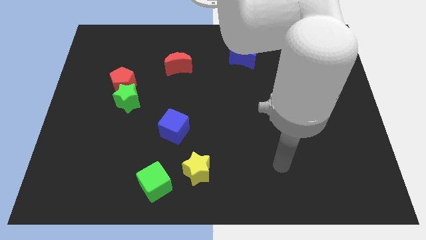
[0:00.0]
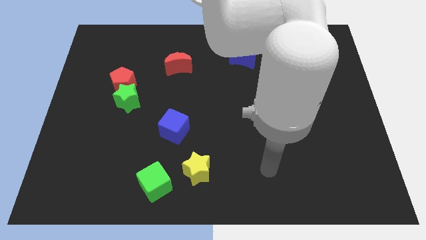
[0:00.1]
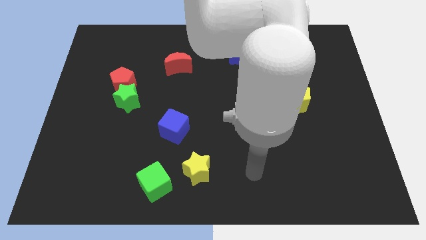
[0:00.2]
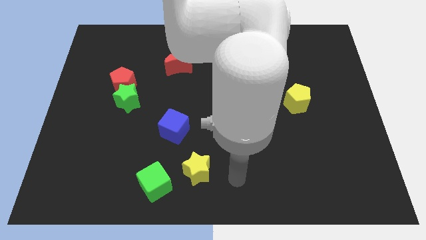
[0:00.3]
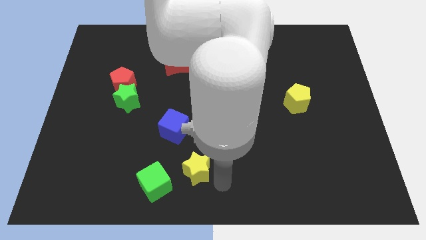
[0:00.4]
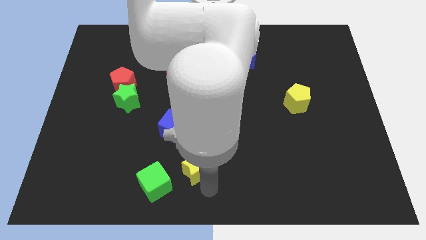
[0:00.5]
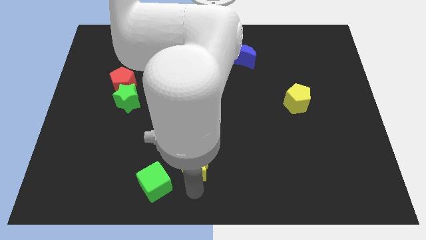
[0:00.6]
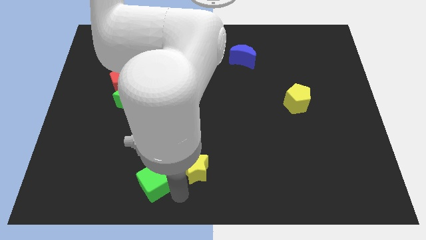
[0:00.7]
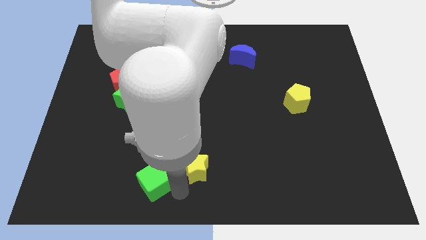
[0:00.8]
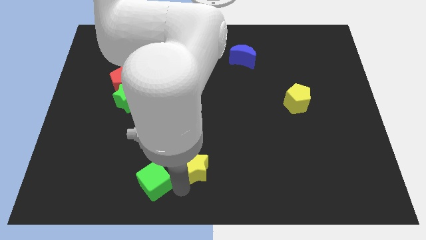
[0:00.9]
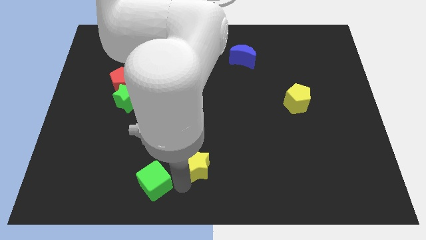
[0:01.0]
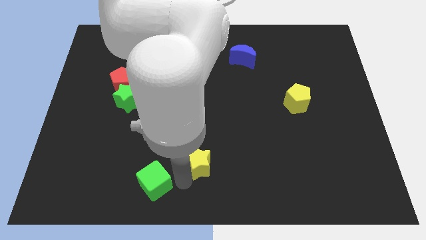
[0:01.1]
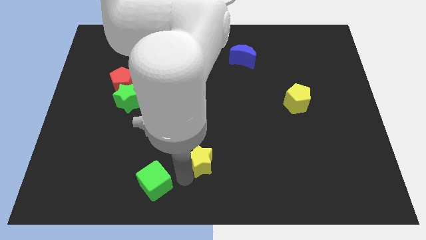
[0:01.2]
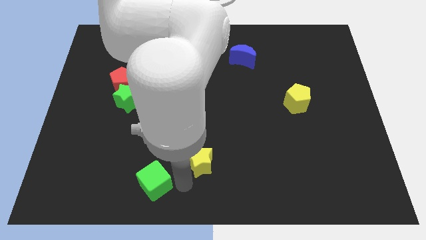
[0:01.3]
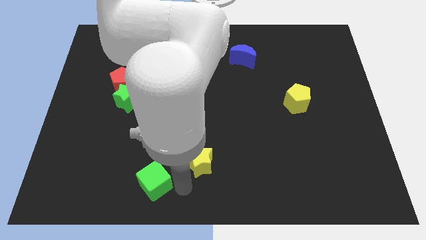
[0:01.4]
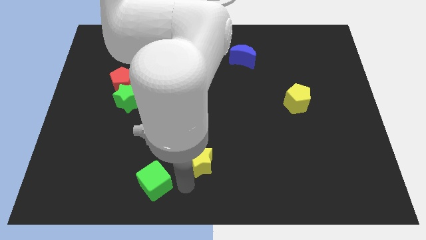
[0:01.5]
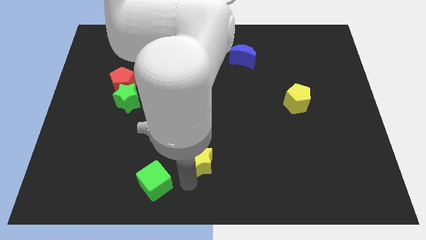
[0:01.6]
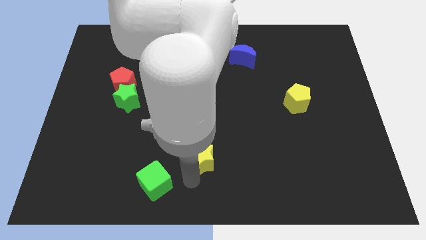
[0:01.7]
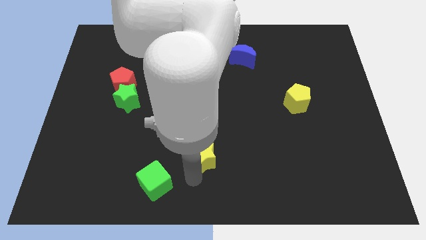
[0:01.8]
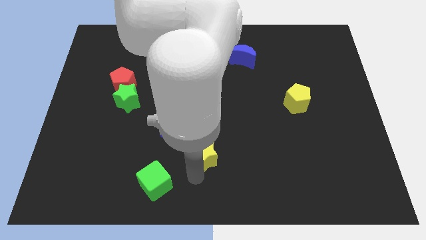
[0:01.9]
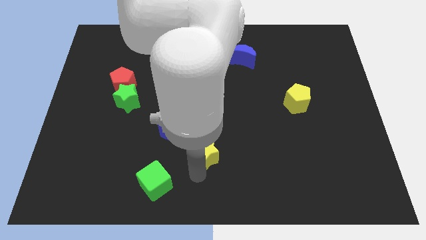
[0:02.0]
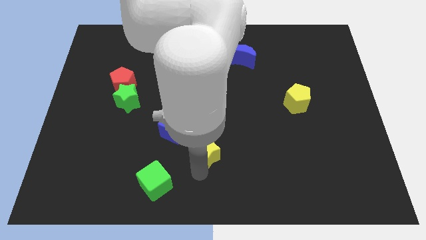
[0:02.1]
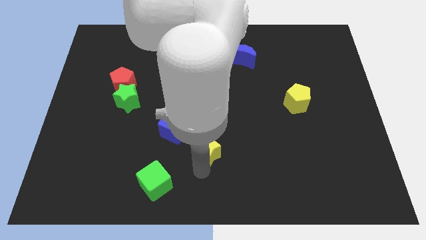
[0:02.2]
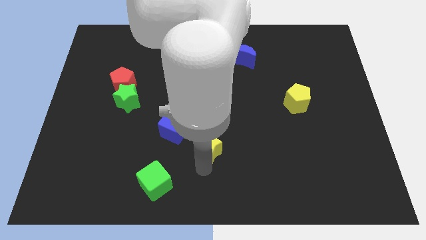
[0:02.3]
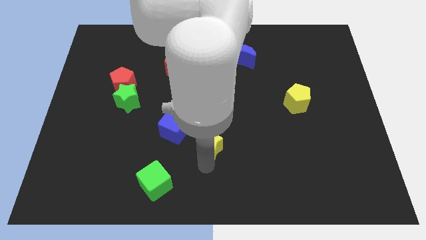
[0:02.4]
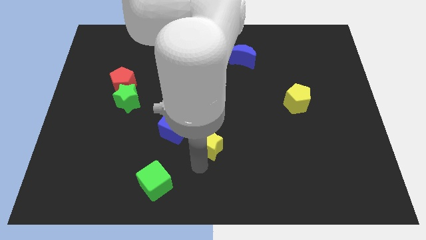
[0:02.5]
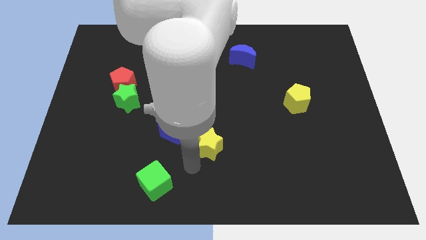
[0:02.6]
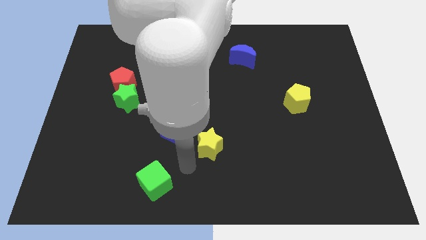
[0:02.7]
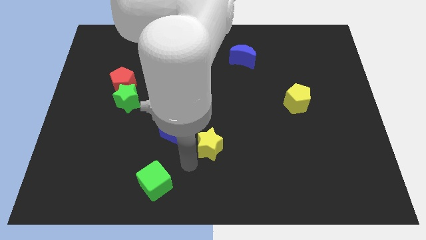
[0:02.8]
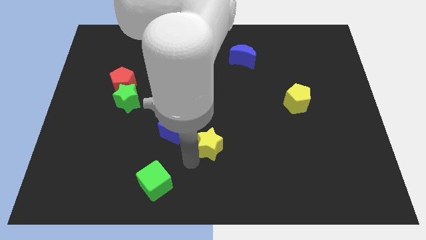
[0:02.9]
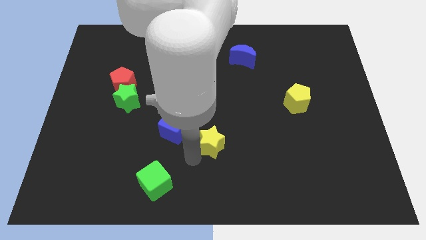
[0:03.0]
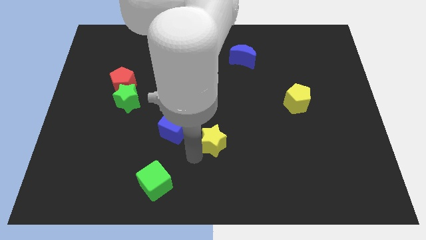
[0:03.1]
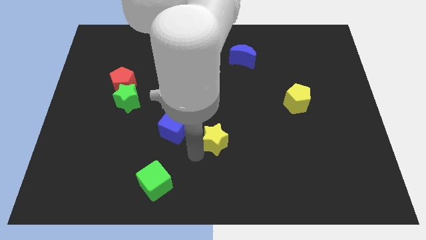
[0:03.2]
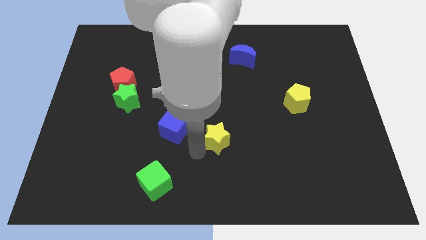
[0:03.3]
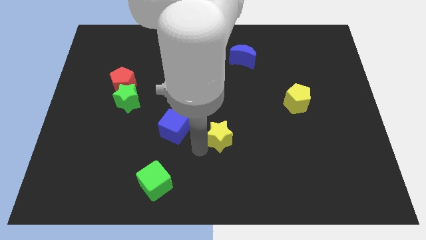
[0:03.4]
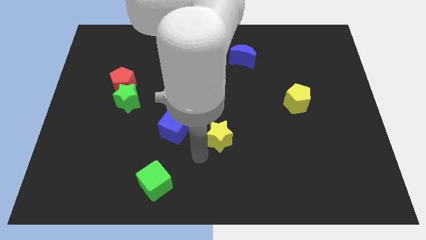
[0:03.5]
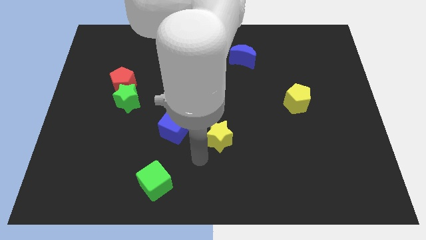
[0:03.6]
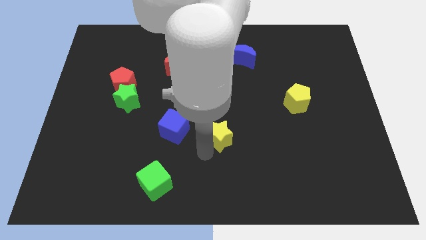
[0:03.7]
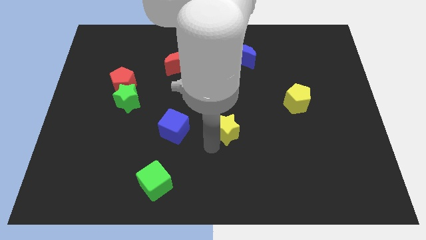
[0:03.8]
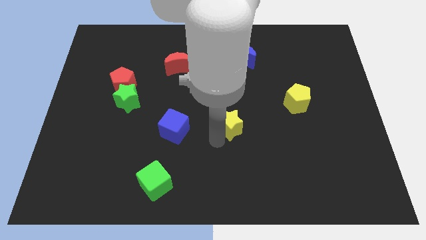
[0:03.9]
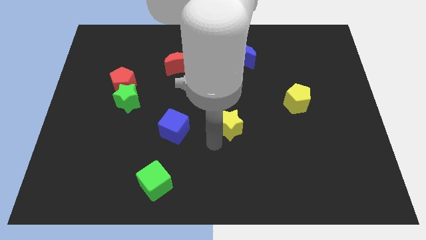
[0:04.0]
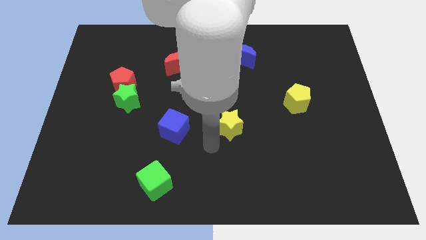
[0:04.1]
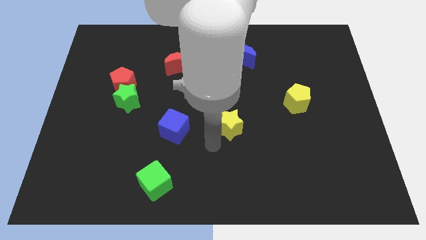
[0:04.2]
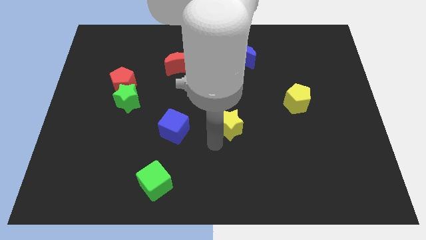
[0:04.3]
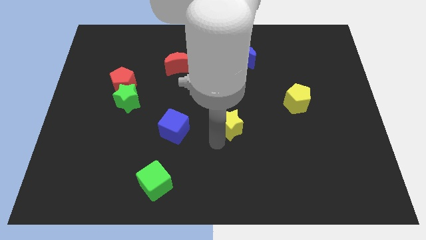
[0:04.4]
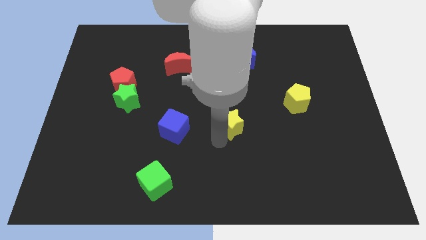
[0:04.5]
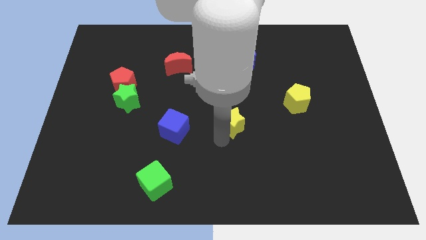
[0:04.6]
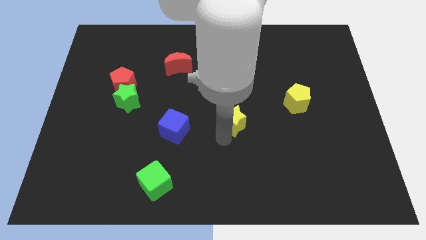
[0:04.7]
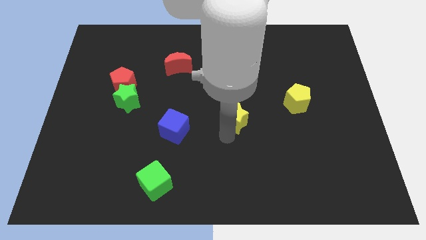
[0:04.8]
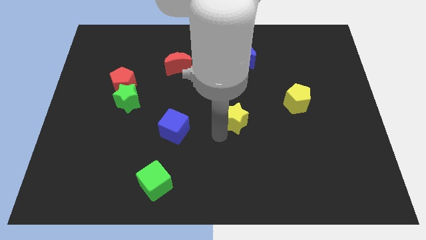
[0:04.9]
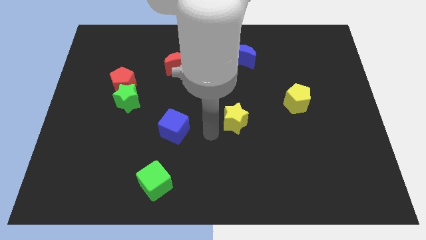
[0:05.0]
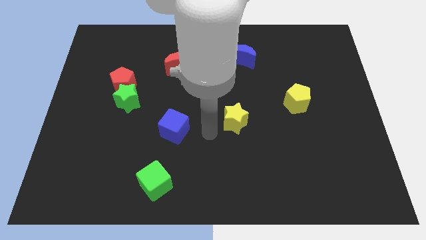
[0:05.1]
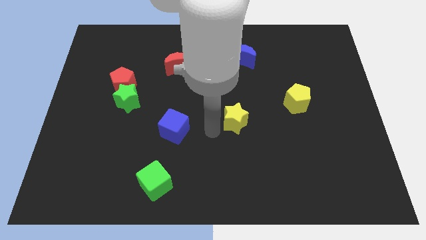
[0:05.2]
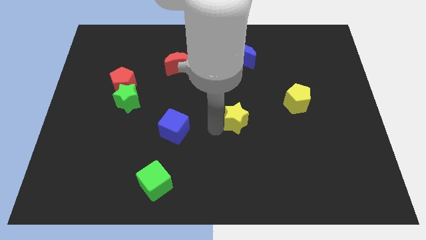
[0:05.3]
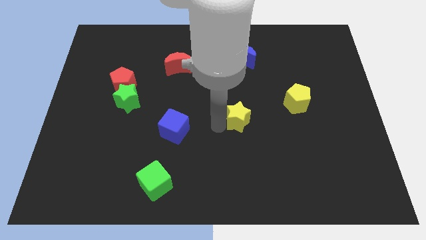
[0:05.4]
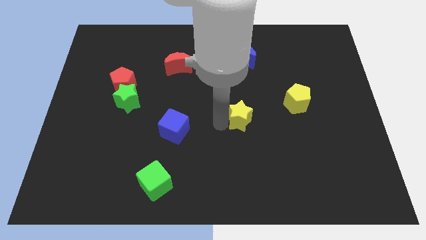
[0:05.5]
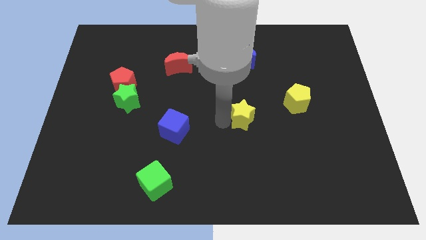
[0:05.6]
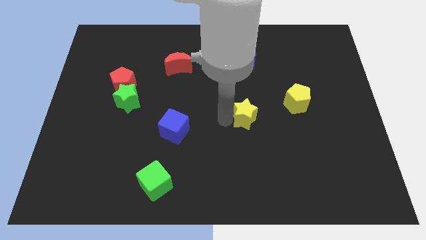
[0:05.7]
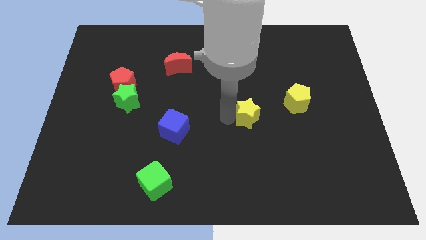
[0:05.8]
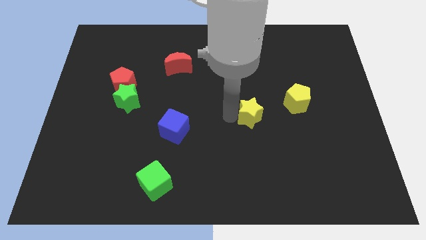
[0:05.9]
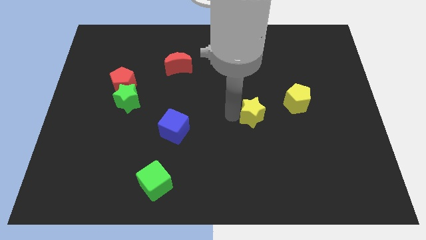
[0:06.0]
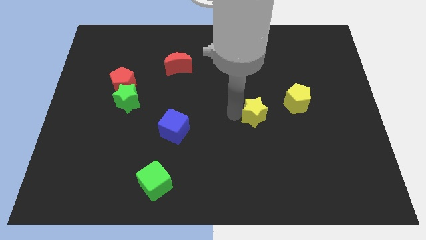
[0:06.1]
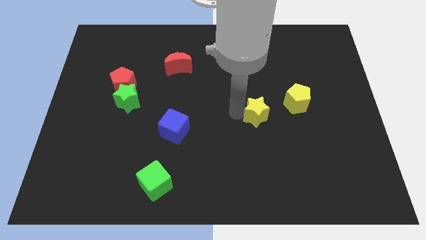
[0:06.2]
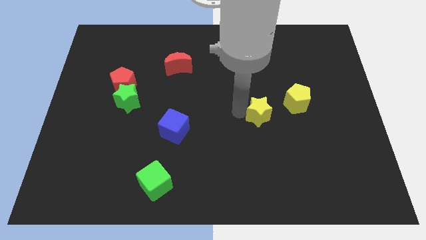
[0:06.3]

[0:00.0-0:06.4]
push the yellow star diagonally upwards and to the right

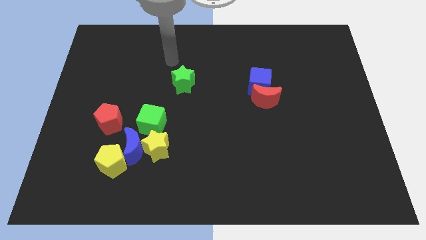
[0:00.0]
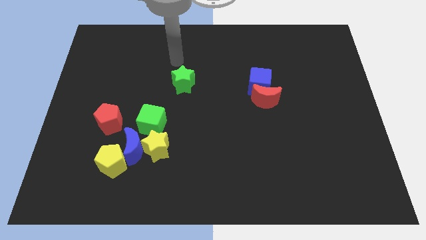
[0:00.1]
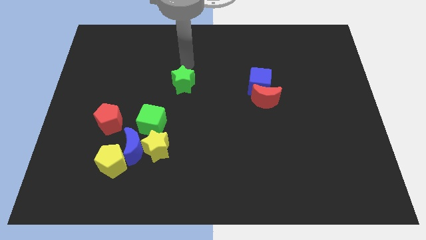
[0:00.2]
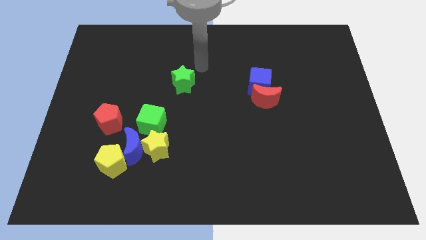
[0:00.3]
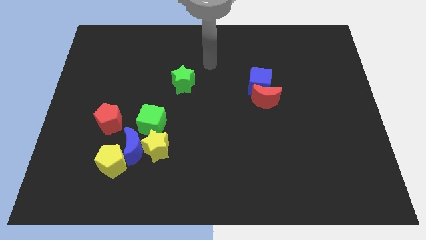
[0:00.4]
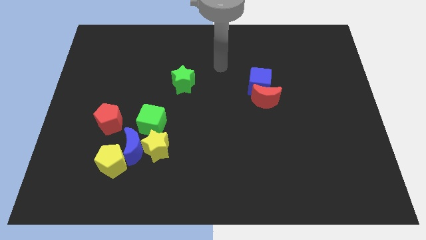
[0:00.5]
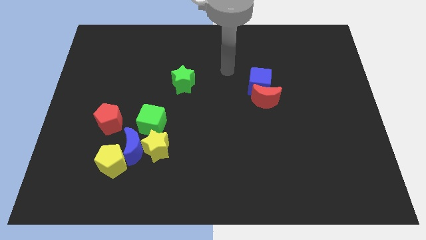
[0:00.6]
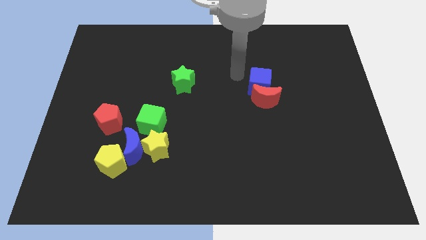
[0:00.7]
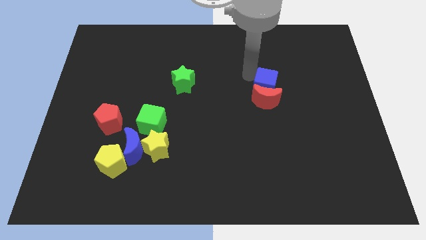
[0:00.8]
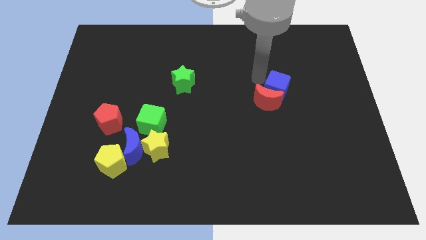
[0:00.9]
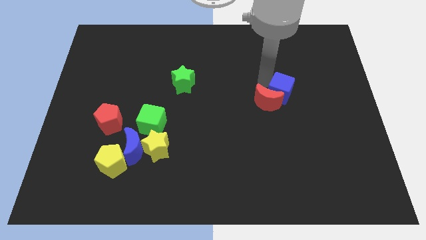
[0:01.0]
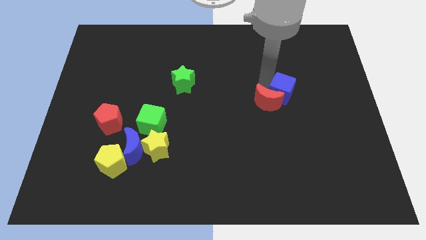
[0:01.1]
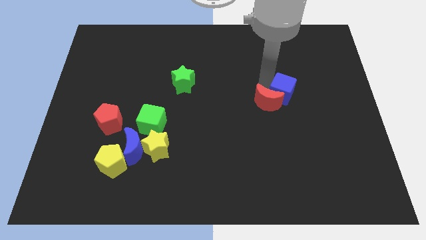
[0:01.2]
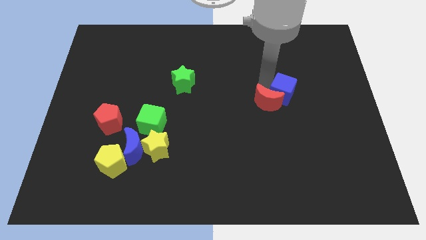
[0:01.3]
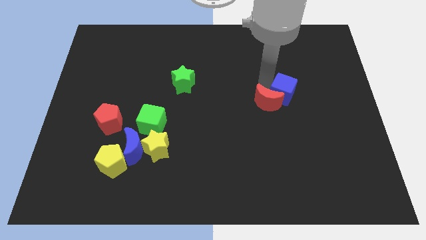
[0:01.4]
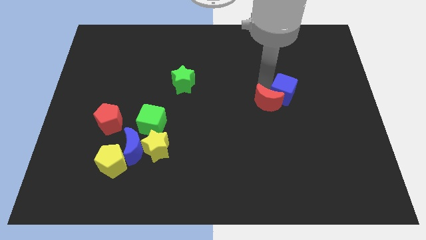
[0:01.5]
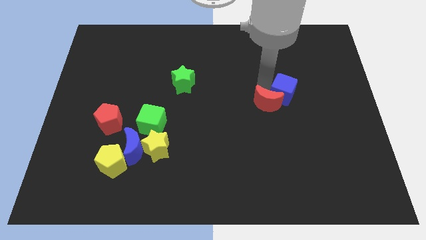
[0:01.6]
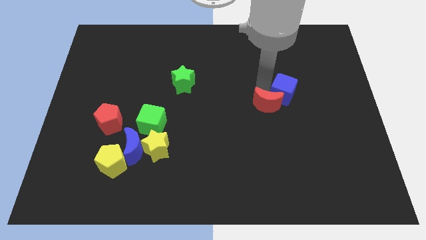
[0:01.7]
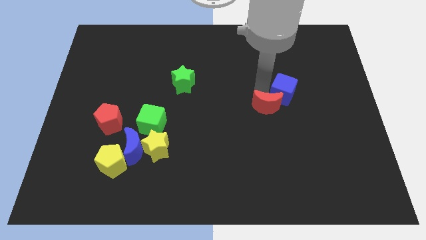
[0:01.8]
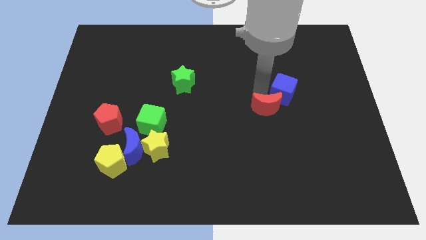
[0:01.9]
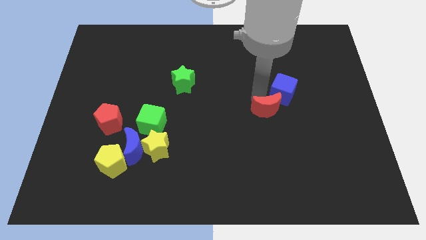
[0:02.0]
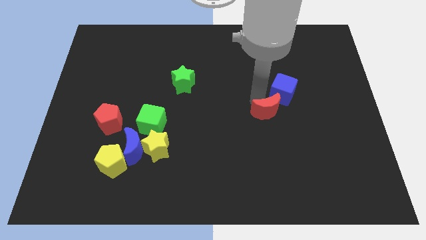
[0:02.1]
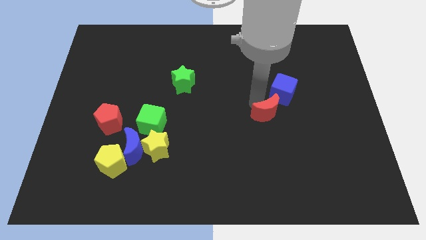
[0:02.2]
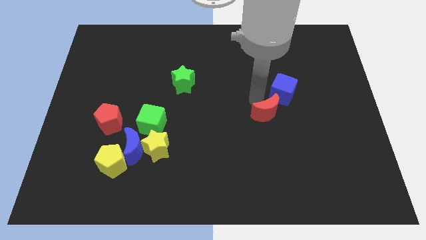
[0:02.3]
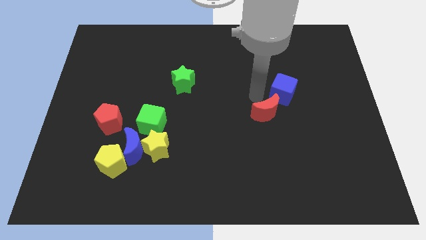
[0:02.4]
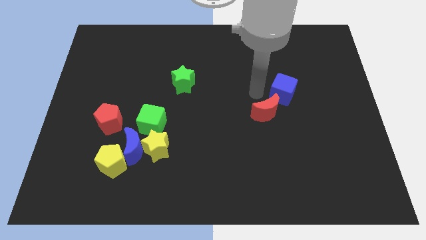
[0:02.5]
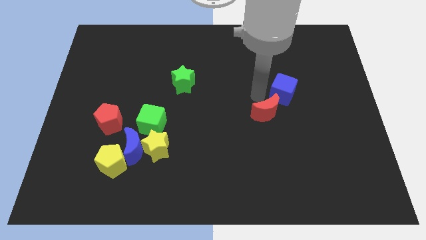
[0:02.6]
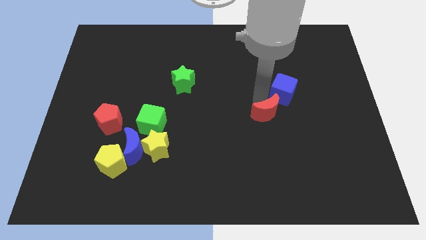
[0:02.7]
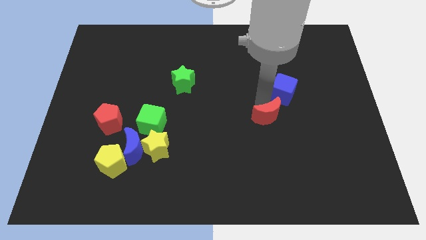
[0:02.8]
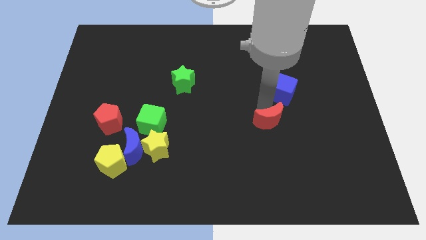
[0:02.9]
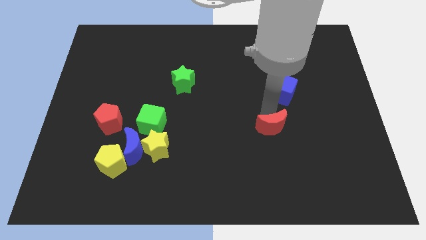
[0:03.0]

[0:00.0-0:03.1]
push the red moon downwards a little
